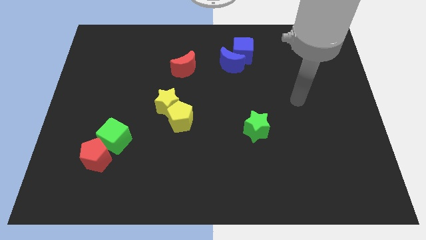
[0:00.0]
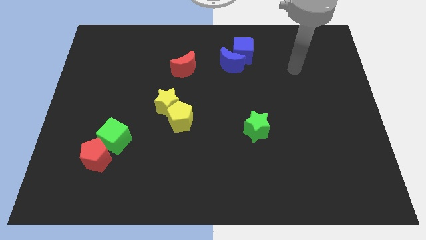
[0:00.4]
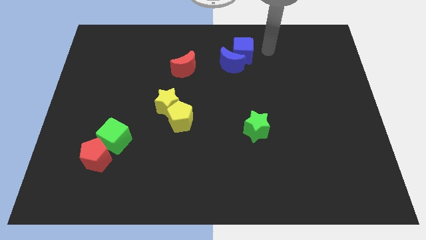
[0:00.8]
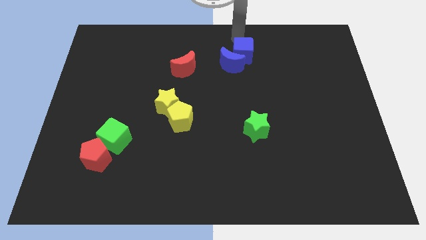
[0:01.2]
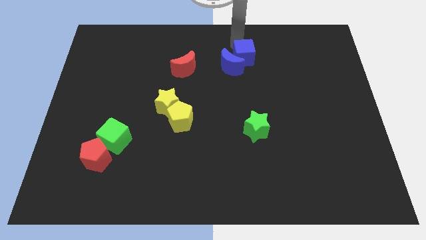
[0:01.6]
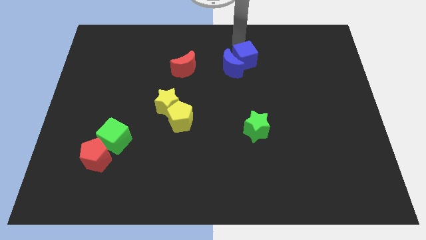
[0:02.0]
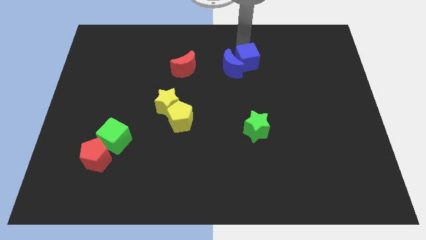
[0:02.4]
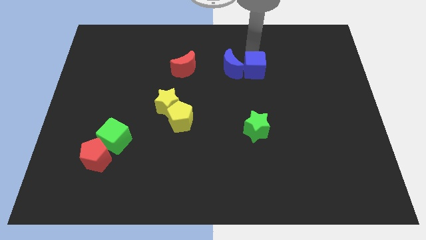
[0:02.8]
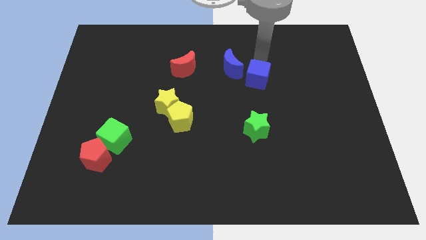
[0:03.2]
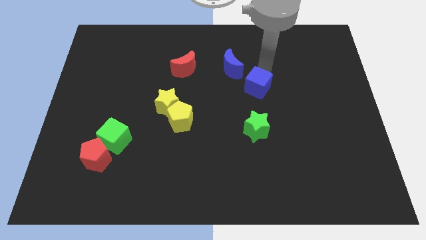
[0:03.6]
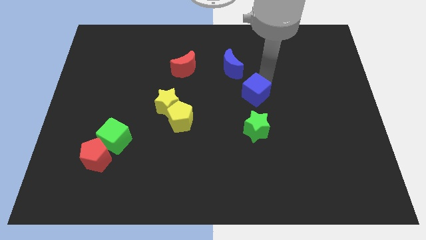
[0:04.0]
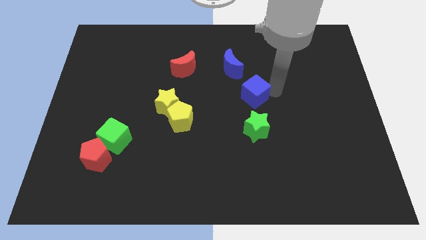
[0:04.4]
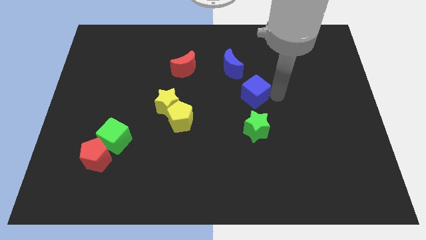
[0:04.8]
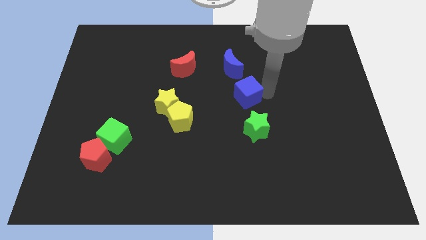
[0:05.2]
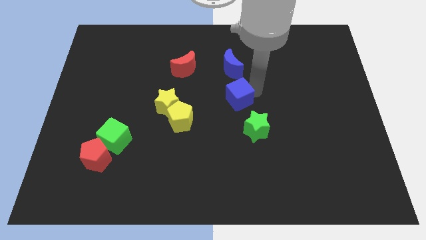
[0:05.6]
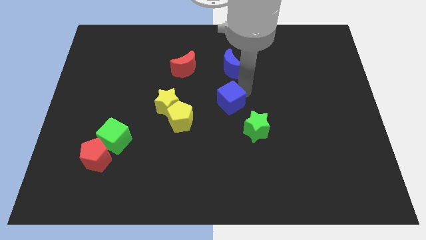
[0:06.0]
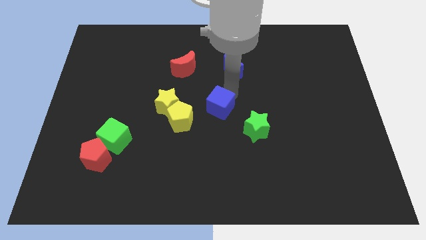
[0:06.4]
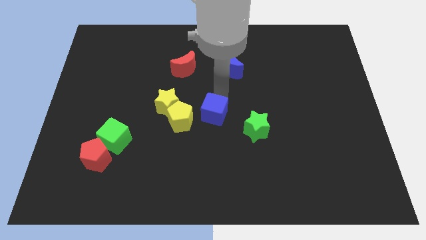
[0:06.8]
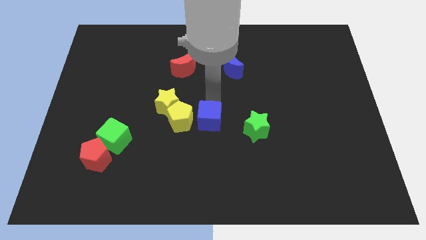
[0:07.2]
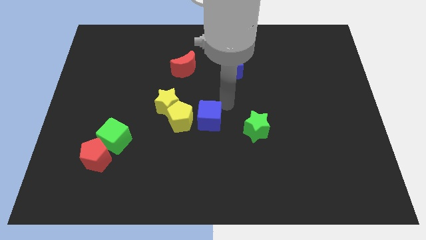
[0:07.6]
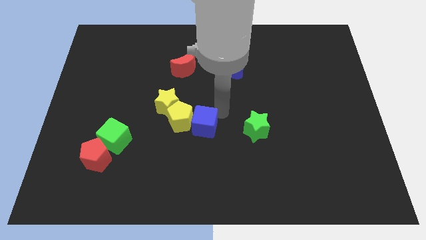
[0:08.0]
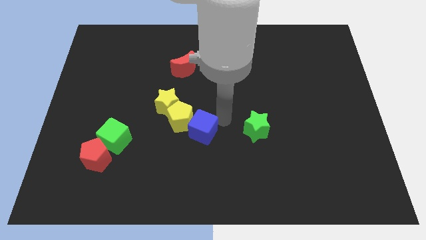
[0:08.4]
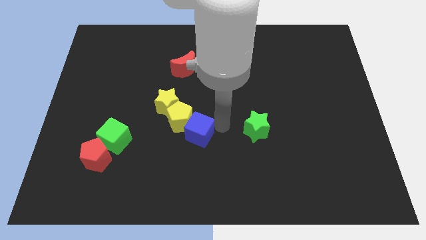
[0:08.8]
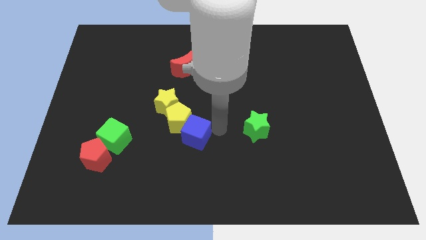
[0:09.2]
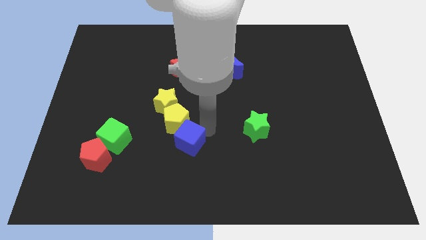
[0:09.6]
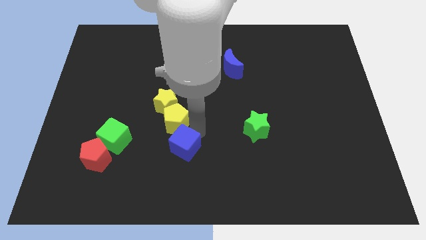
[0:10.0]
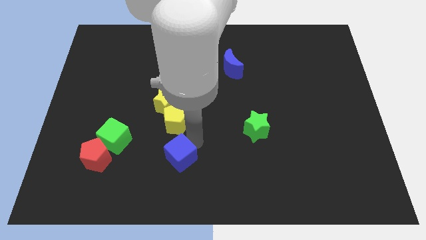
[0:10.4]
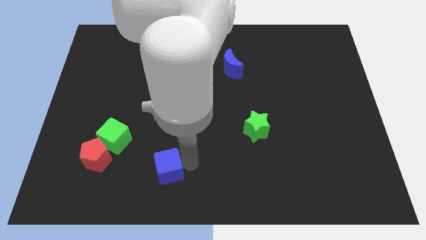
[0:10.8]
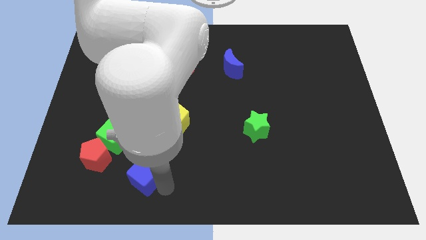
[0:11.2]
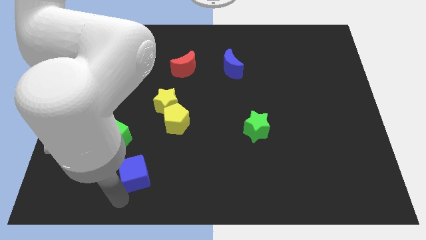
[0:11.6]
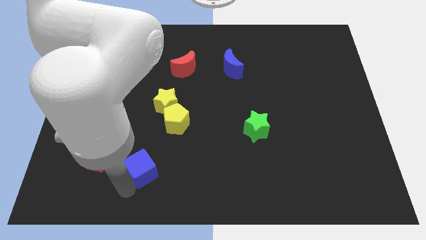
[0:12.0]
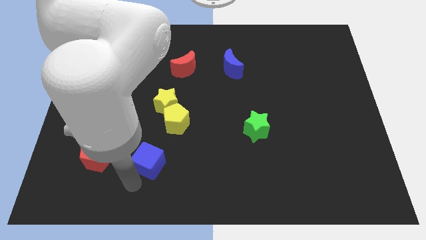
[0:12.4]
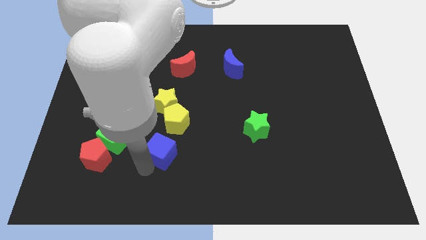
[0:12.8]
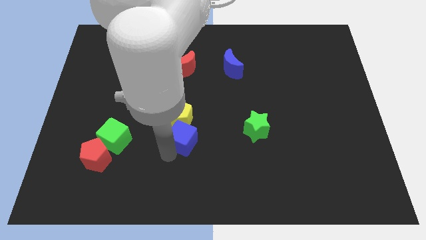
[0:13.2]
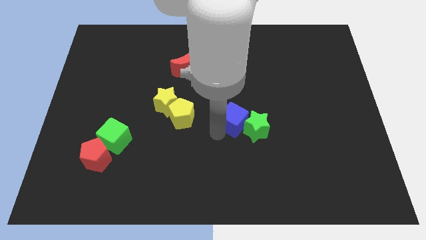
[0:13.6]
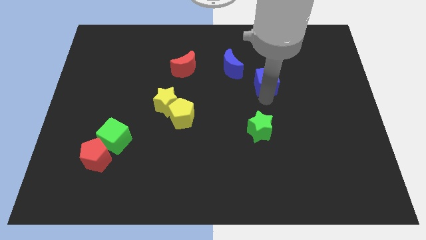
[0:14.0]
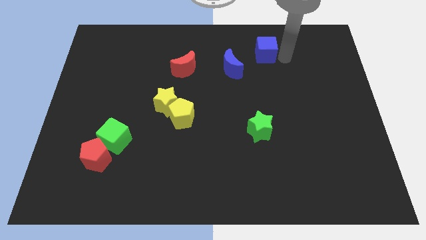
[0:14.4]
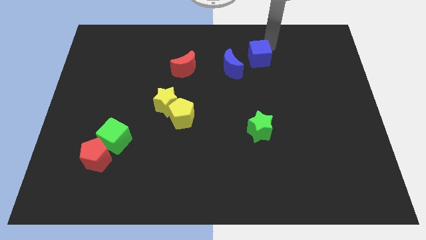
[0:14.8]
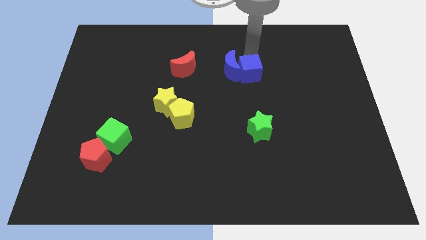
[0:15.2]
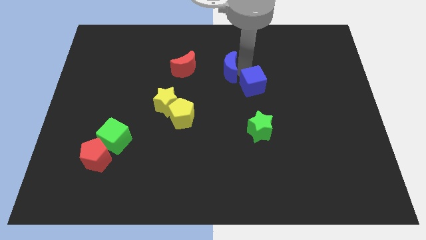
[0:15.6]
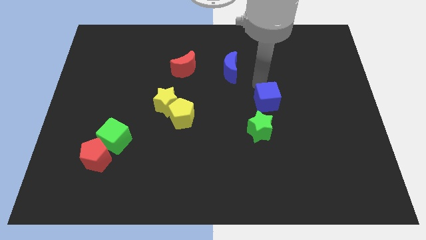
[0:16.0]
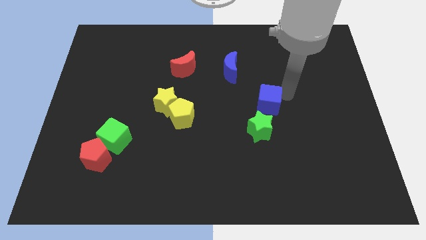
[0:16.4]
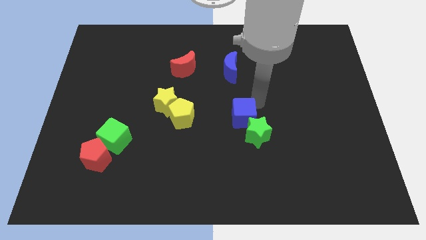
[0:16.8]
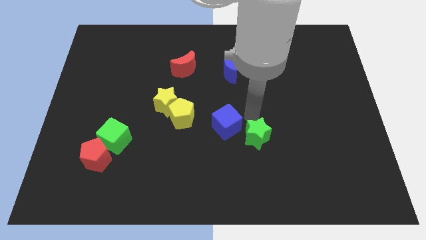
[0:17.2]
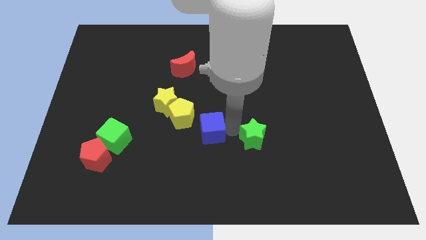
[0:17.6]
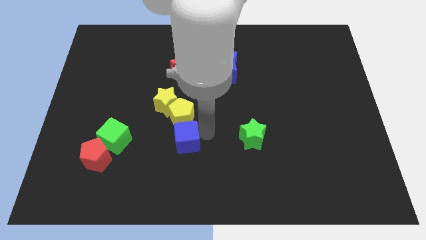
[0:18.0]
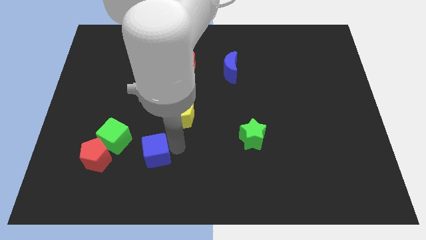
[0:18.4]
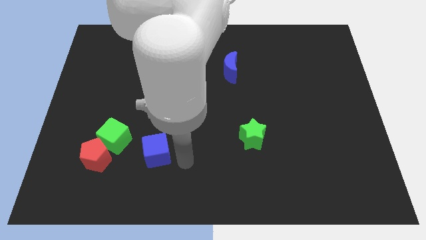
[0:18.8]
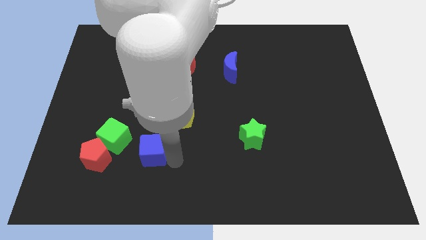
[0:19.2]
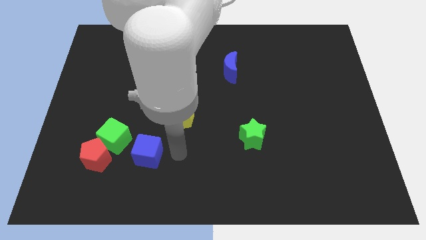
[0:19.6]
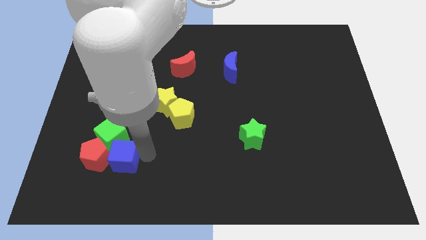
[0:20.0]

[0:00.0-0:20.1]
move the blue cube close to the red pentagon
